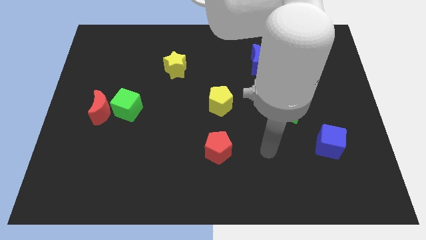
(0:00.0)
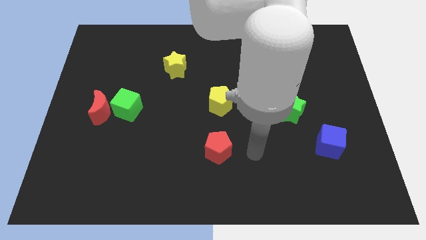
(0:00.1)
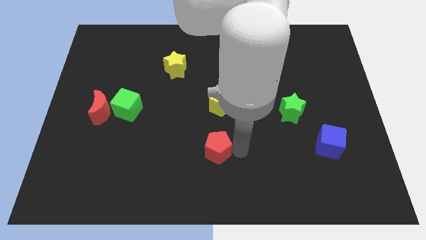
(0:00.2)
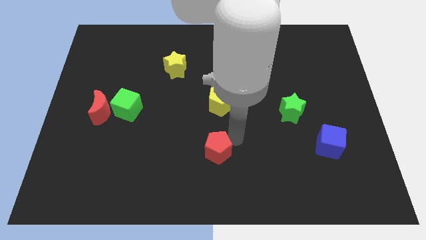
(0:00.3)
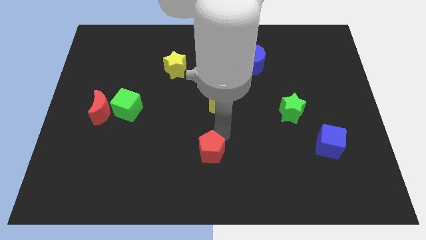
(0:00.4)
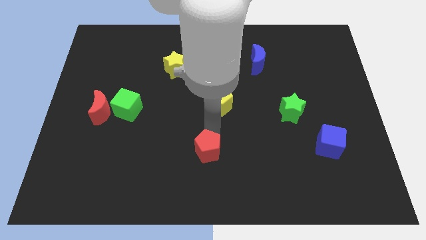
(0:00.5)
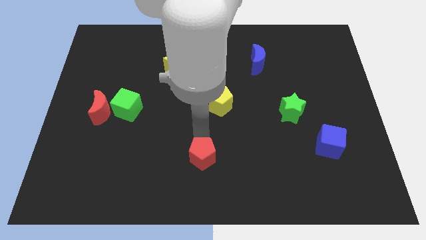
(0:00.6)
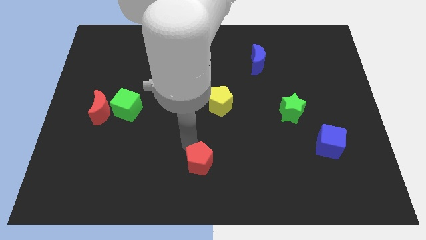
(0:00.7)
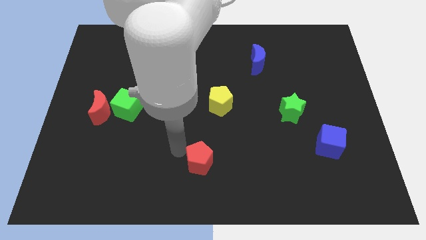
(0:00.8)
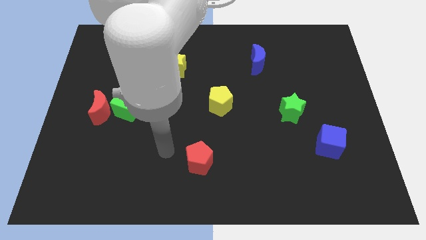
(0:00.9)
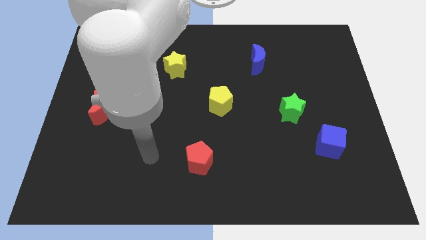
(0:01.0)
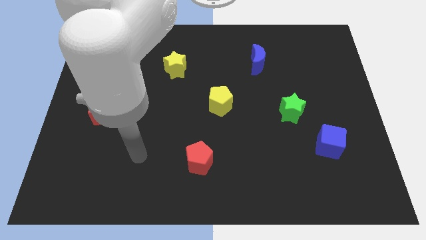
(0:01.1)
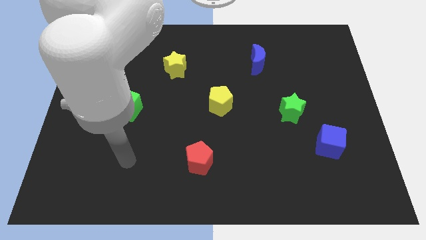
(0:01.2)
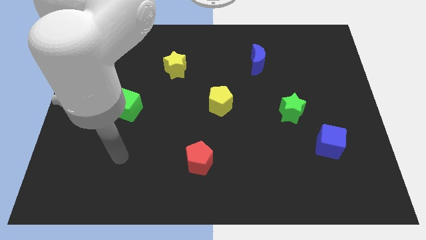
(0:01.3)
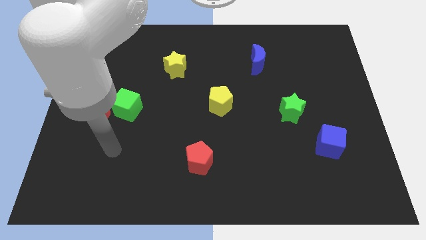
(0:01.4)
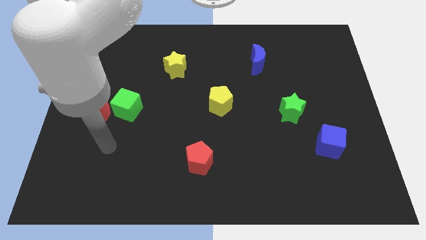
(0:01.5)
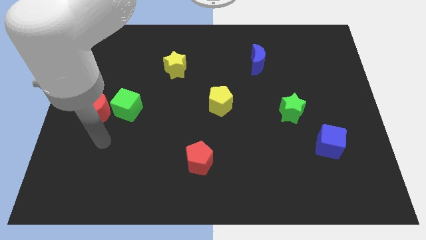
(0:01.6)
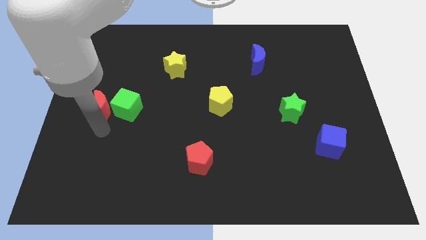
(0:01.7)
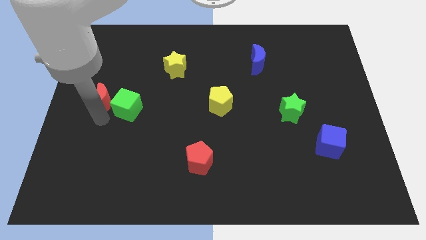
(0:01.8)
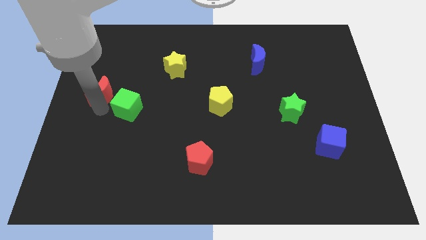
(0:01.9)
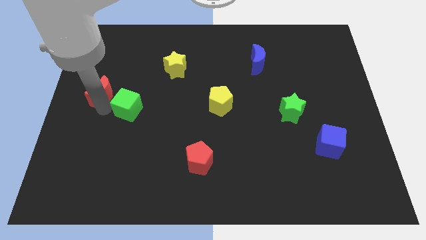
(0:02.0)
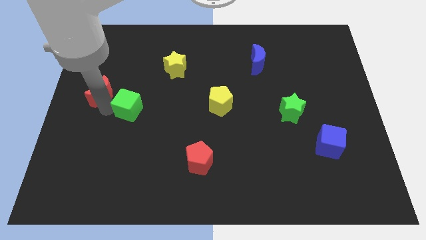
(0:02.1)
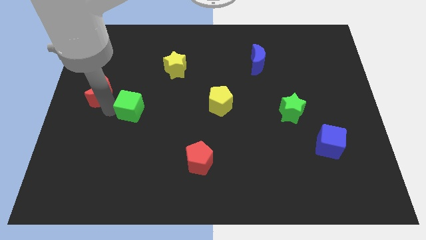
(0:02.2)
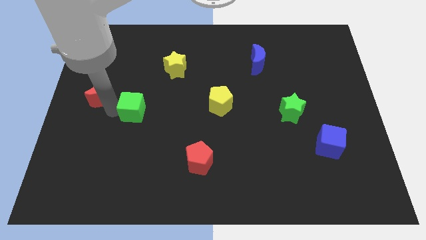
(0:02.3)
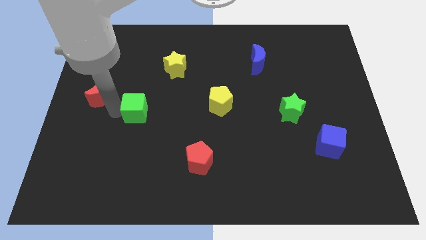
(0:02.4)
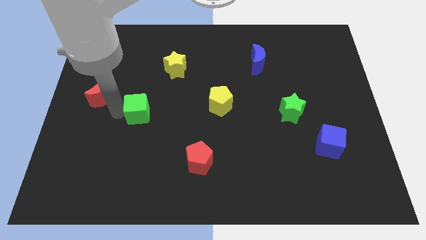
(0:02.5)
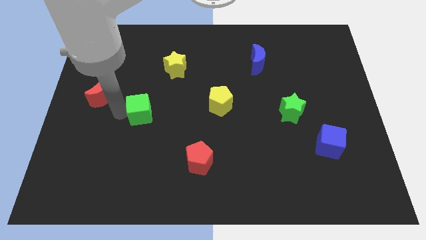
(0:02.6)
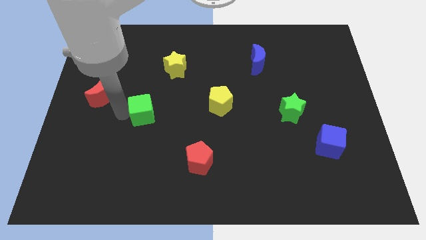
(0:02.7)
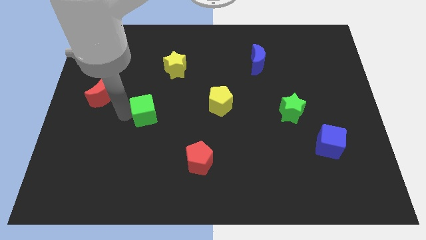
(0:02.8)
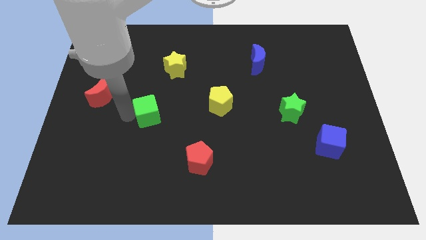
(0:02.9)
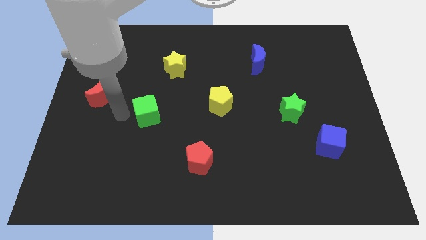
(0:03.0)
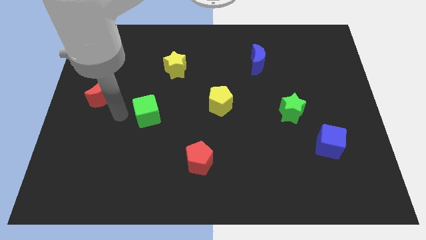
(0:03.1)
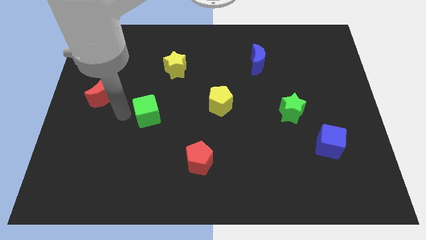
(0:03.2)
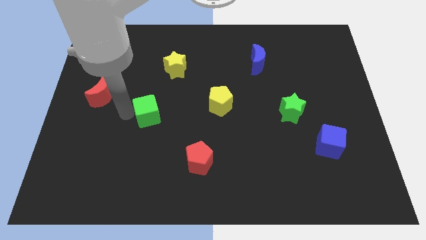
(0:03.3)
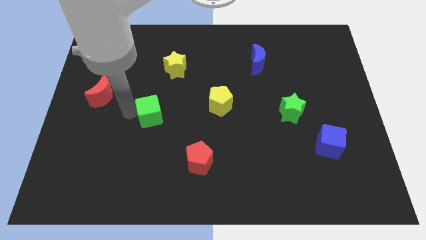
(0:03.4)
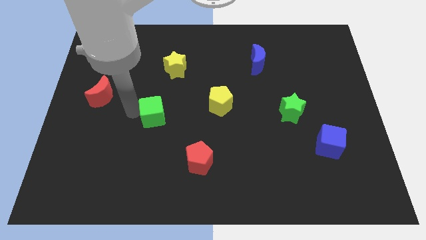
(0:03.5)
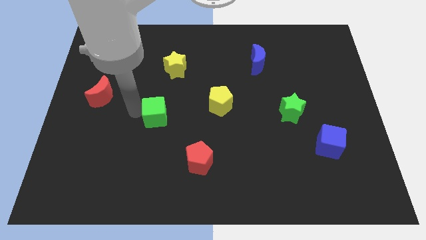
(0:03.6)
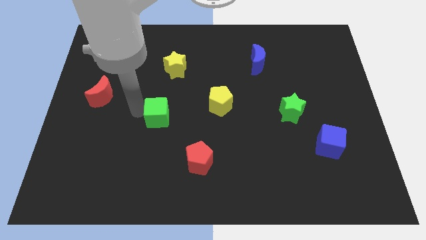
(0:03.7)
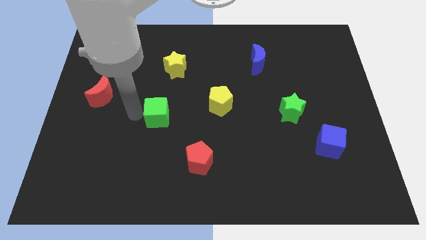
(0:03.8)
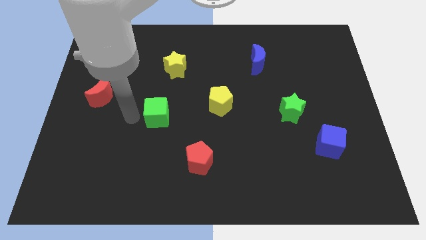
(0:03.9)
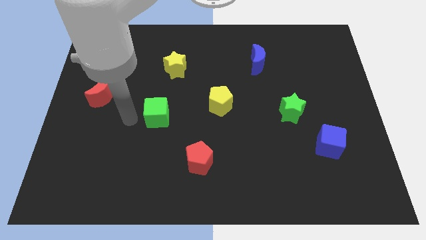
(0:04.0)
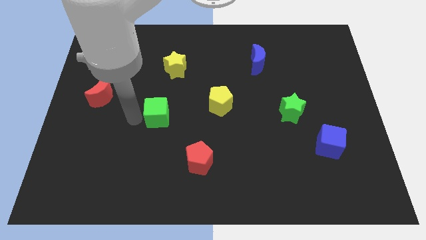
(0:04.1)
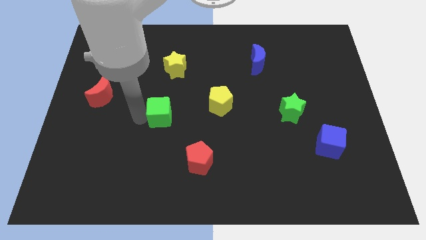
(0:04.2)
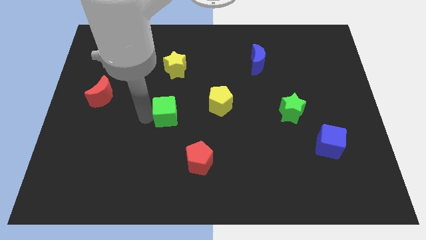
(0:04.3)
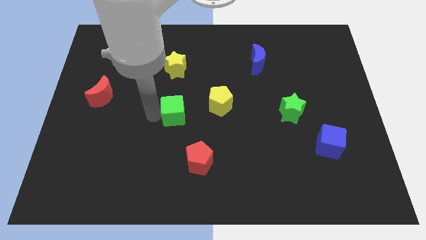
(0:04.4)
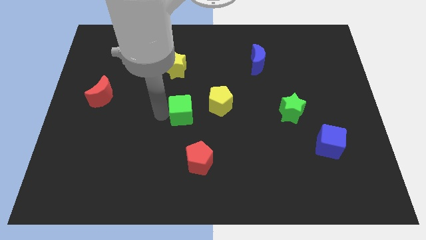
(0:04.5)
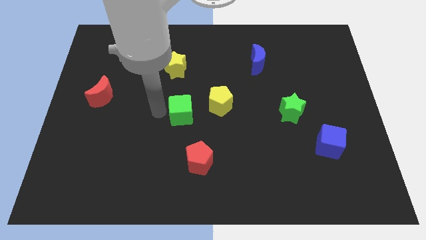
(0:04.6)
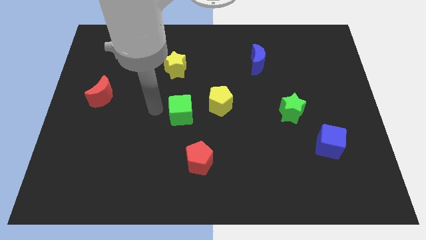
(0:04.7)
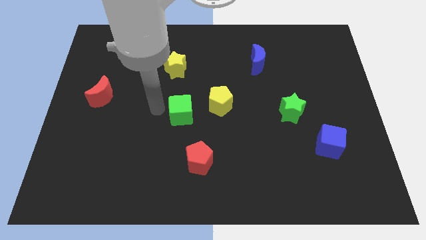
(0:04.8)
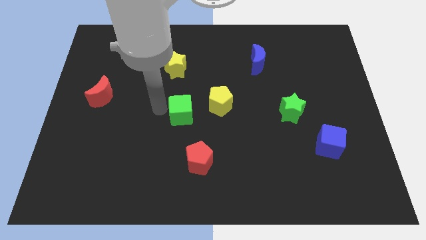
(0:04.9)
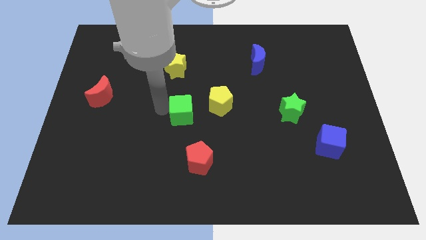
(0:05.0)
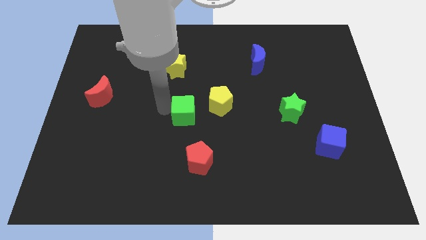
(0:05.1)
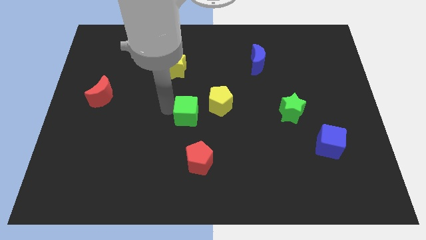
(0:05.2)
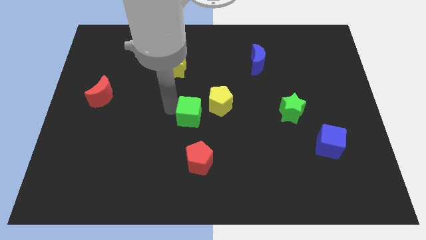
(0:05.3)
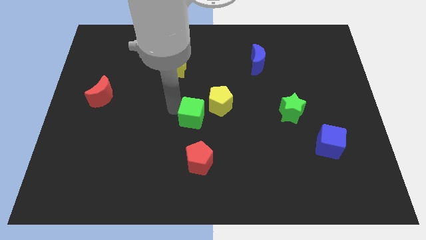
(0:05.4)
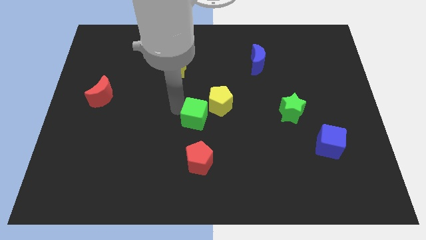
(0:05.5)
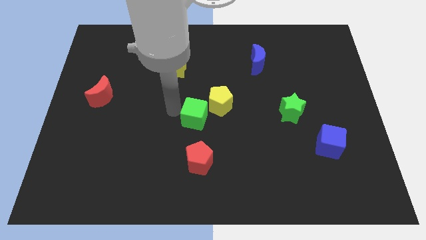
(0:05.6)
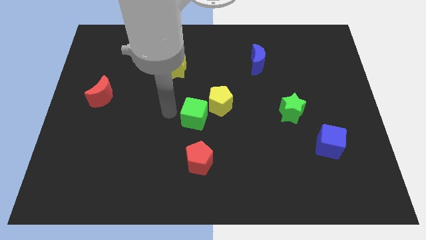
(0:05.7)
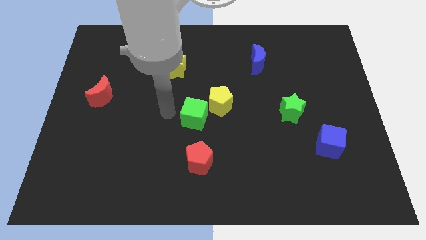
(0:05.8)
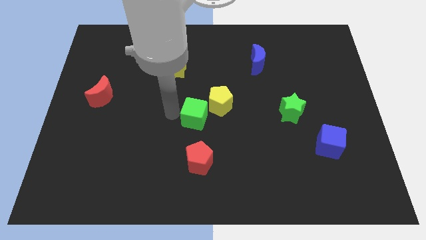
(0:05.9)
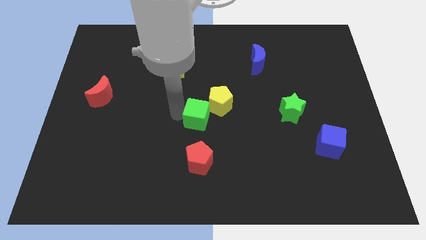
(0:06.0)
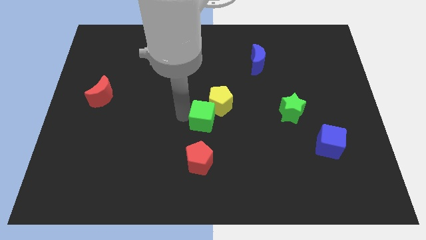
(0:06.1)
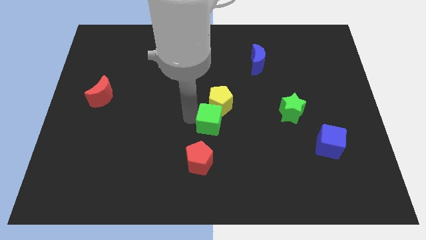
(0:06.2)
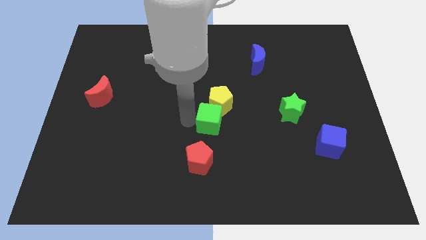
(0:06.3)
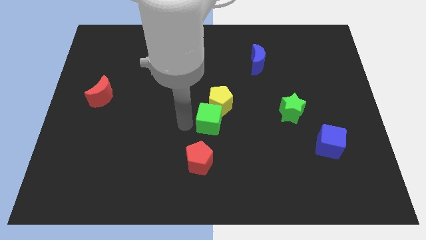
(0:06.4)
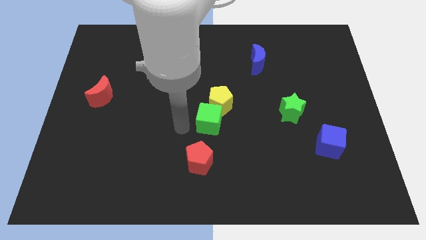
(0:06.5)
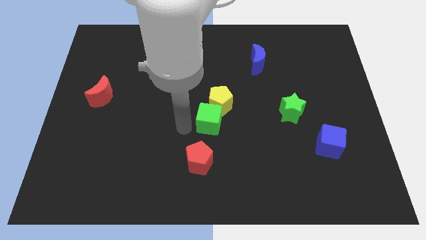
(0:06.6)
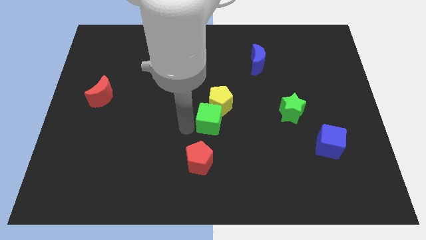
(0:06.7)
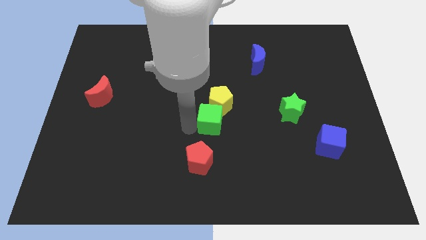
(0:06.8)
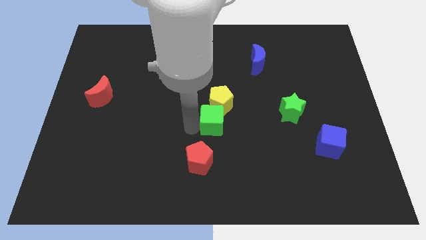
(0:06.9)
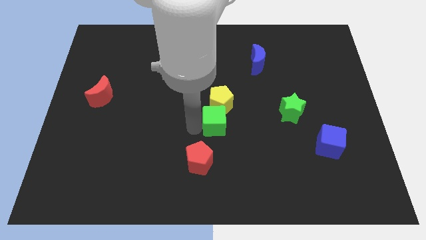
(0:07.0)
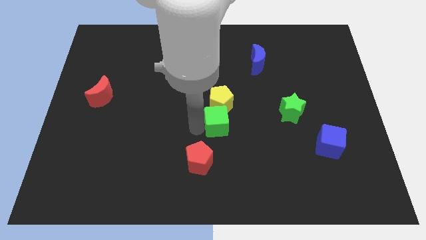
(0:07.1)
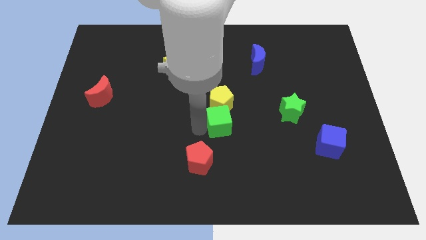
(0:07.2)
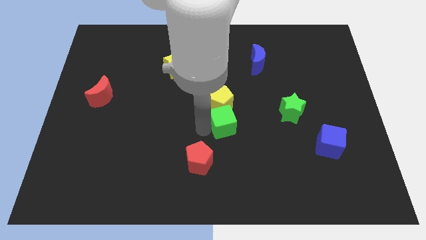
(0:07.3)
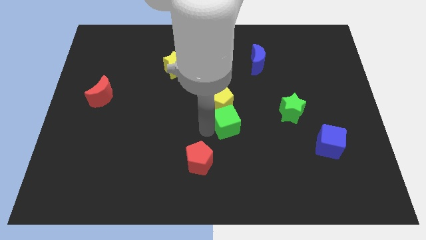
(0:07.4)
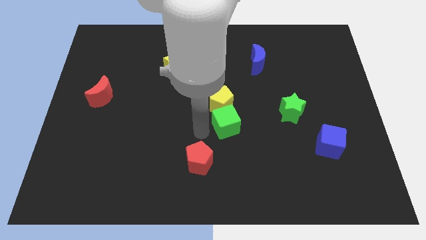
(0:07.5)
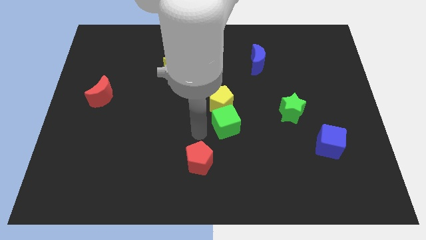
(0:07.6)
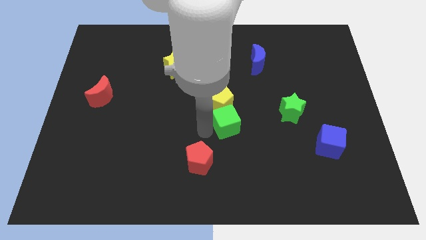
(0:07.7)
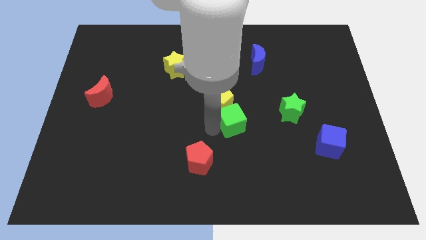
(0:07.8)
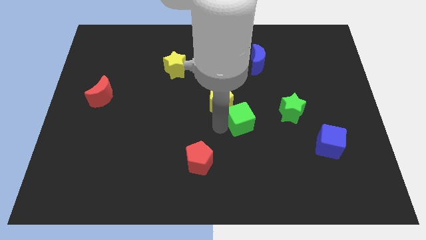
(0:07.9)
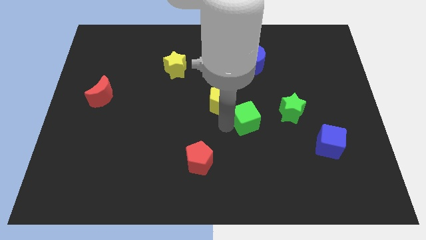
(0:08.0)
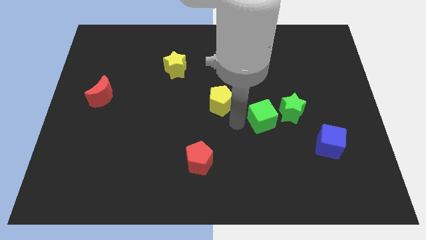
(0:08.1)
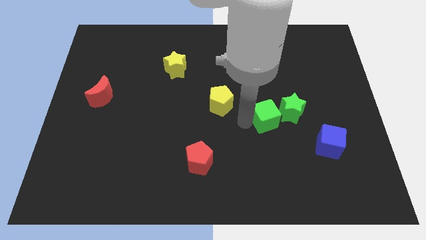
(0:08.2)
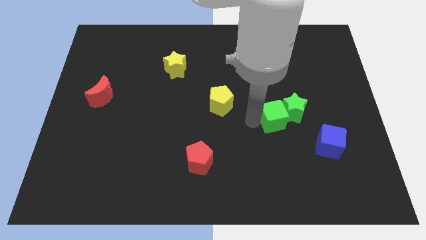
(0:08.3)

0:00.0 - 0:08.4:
push the green cube next to the green star
